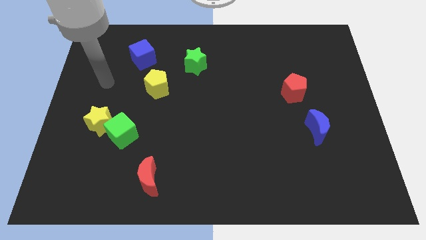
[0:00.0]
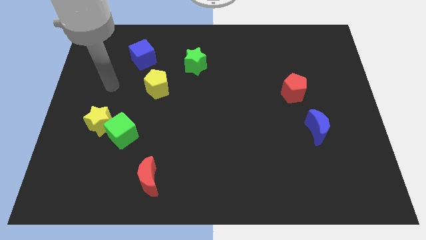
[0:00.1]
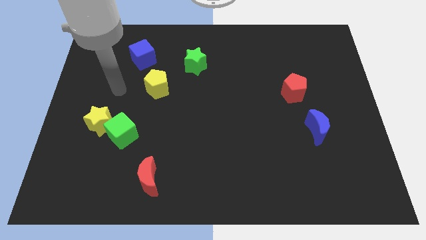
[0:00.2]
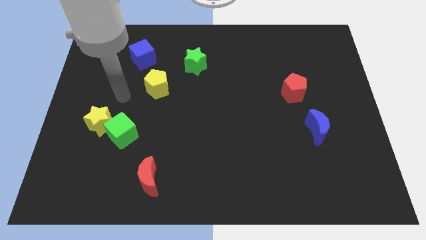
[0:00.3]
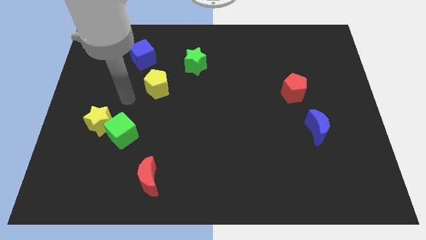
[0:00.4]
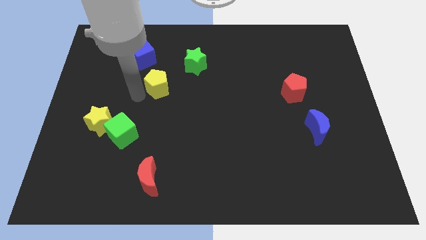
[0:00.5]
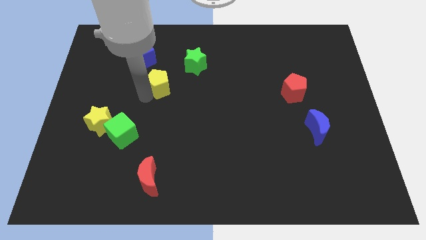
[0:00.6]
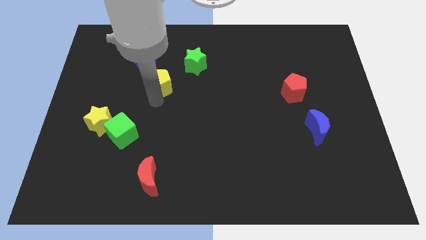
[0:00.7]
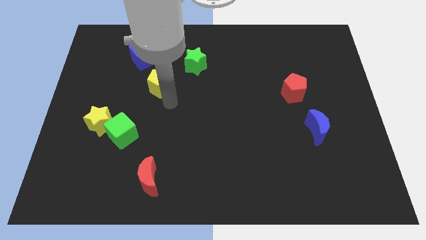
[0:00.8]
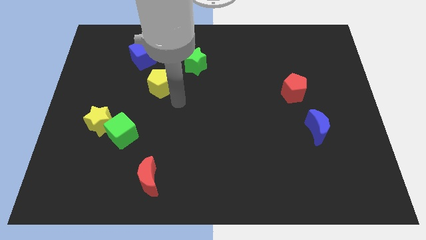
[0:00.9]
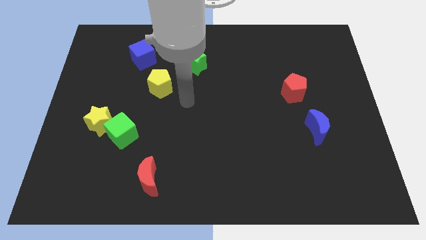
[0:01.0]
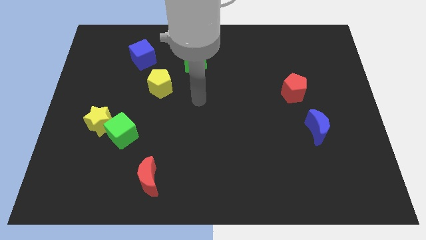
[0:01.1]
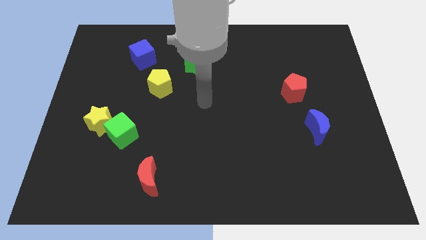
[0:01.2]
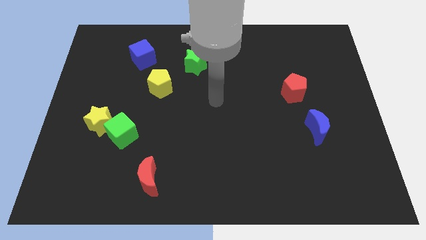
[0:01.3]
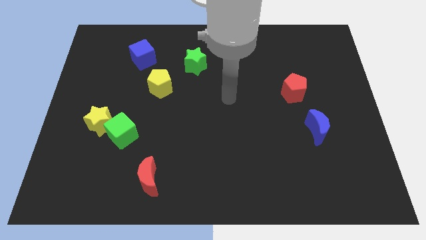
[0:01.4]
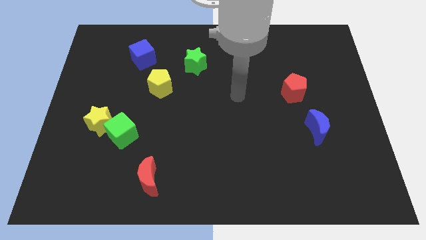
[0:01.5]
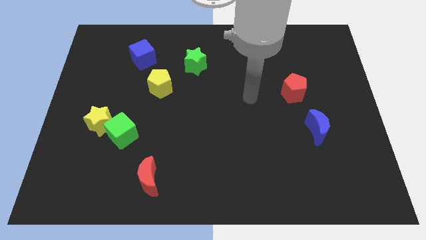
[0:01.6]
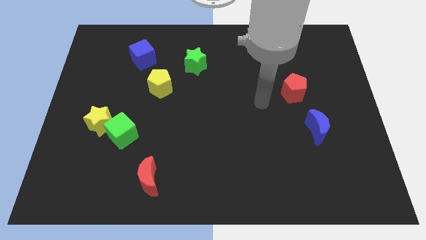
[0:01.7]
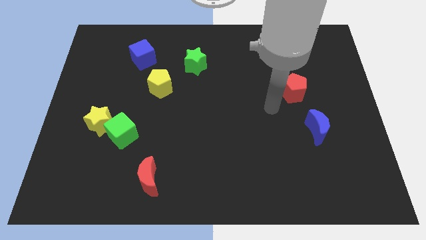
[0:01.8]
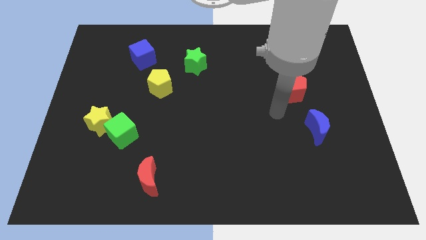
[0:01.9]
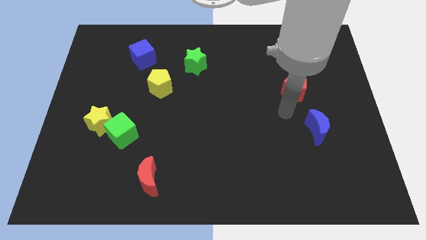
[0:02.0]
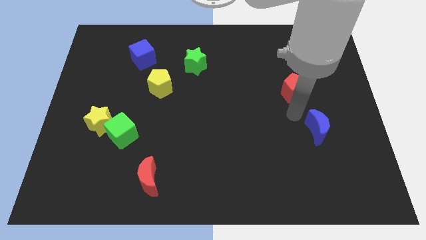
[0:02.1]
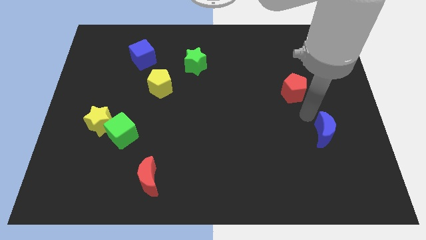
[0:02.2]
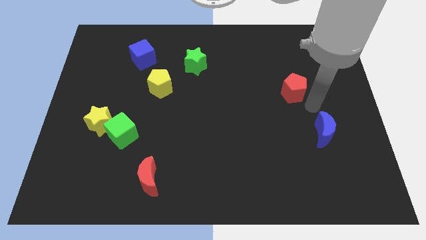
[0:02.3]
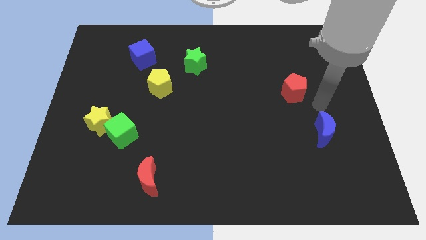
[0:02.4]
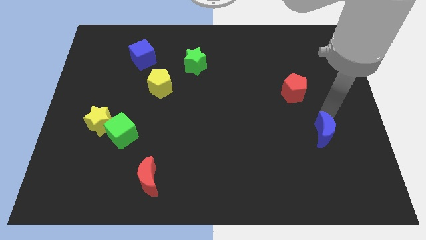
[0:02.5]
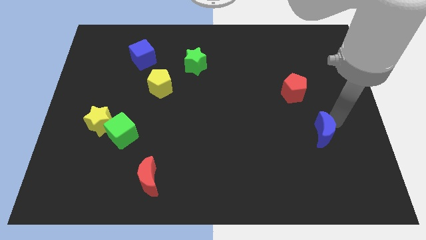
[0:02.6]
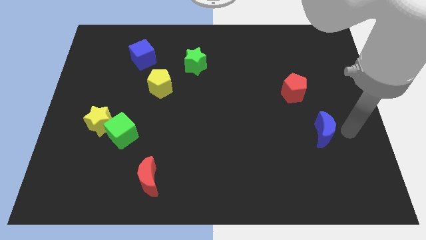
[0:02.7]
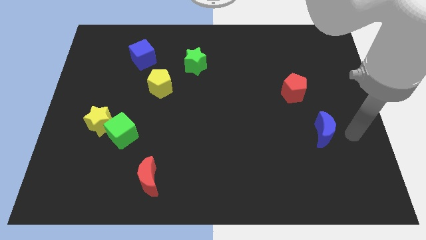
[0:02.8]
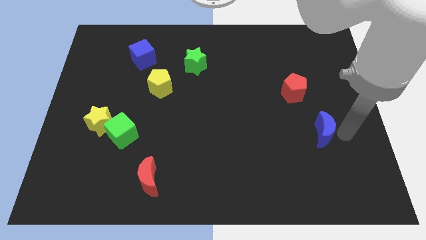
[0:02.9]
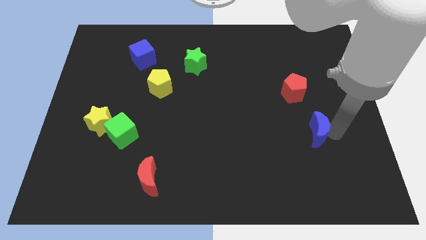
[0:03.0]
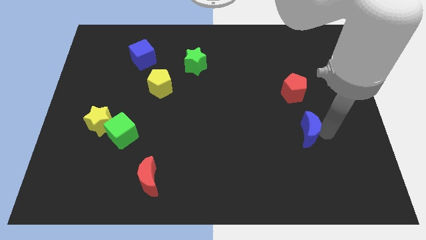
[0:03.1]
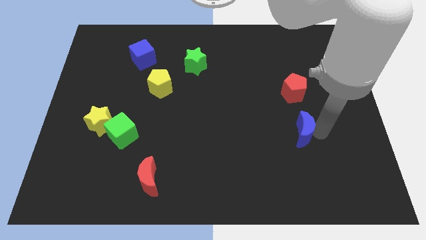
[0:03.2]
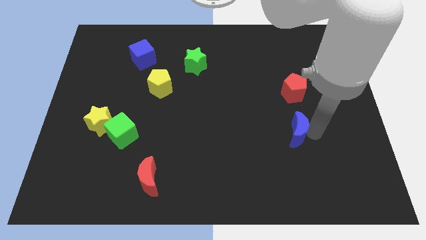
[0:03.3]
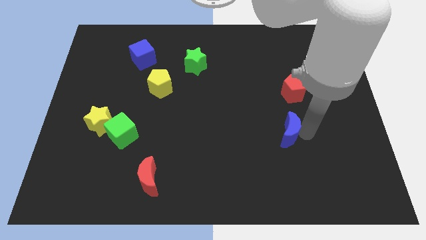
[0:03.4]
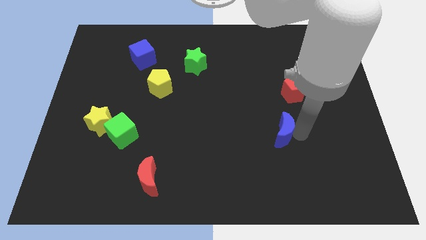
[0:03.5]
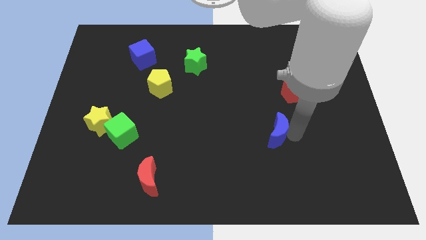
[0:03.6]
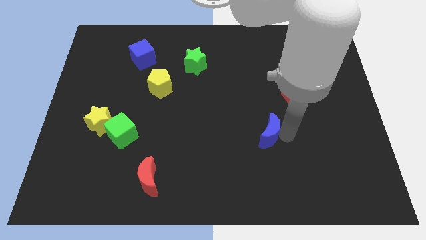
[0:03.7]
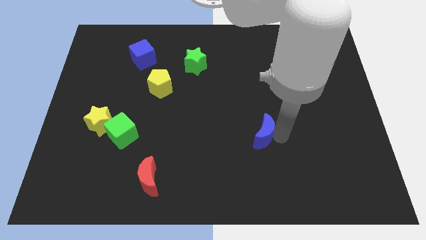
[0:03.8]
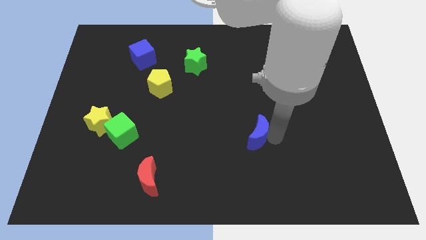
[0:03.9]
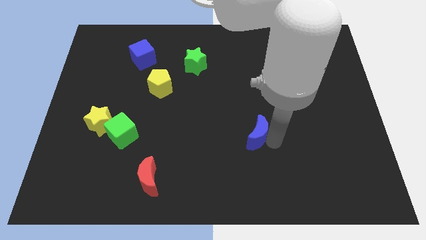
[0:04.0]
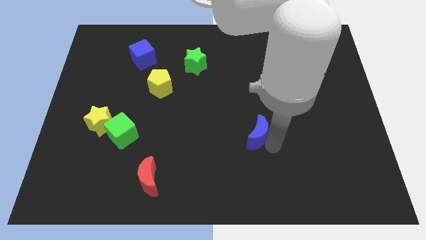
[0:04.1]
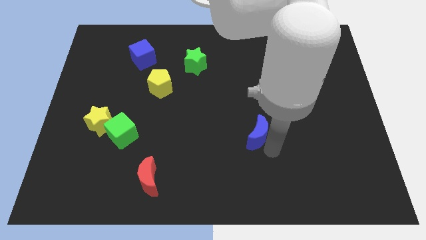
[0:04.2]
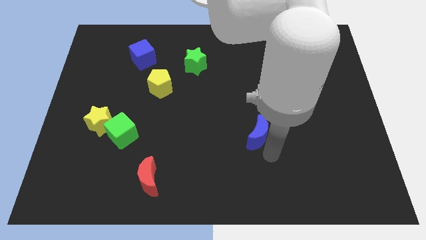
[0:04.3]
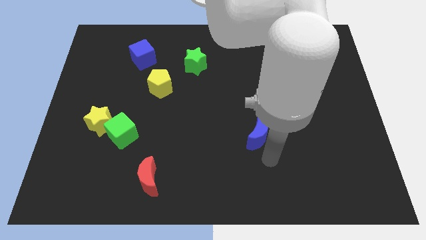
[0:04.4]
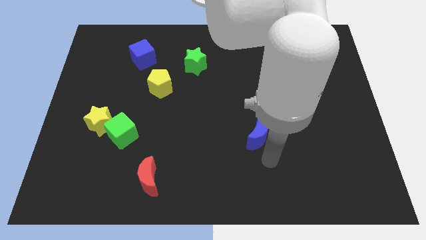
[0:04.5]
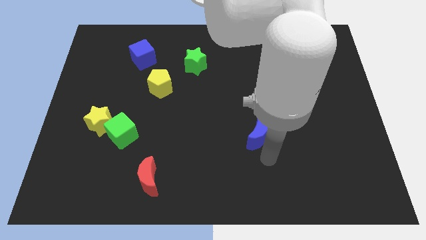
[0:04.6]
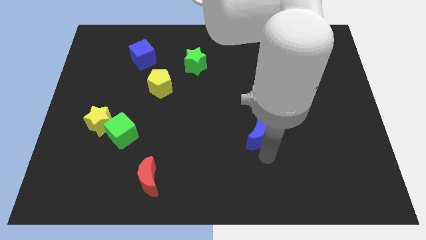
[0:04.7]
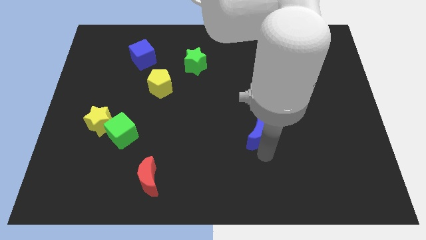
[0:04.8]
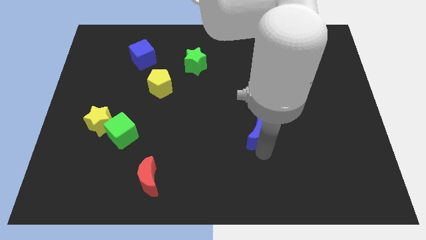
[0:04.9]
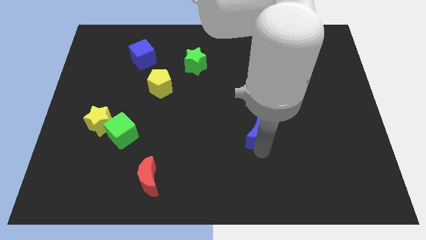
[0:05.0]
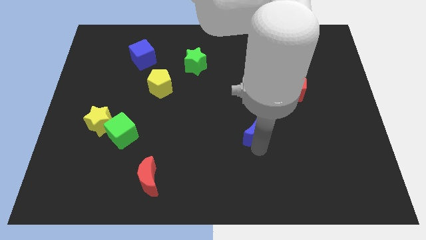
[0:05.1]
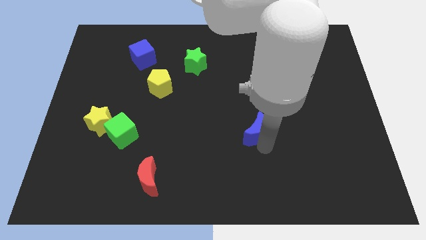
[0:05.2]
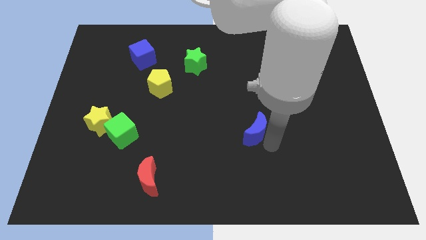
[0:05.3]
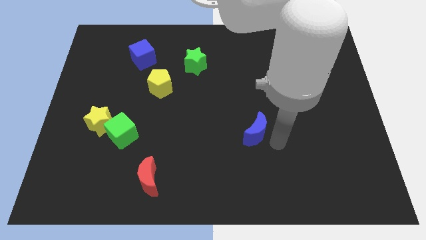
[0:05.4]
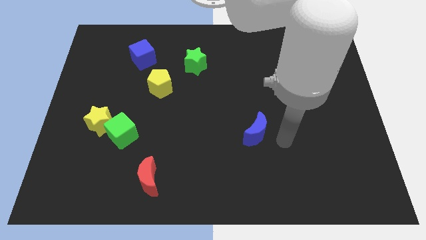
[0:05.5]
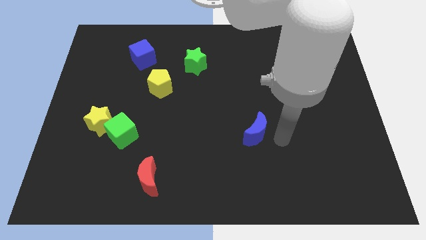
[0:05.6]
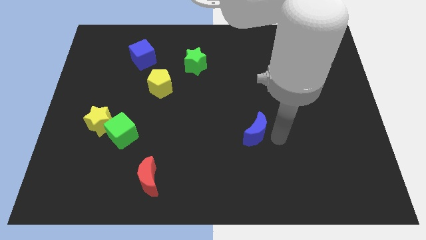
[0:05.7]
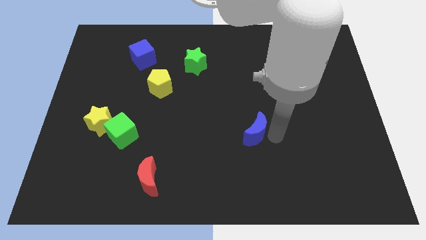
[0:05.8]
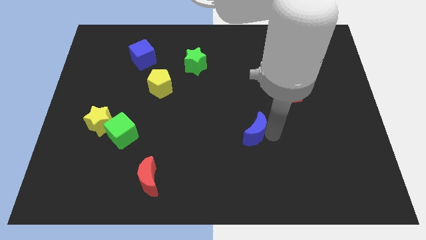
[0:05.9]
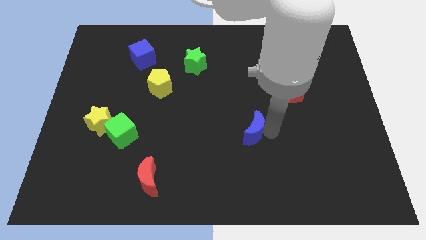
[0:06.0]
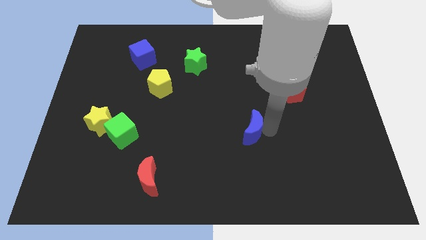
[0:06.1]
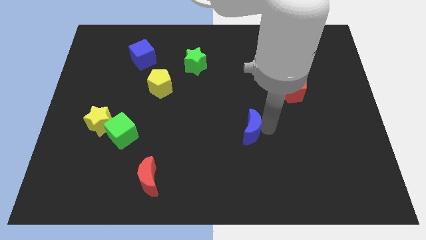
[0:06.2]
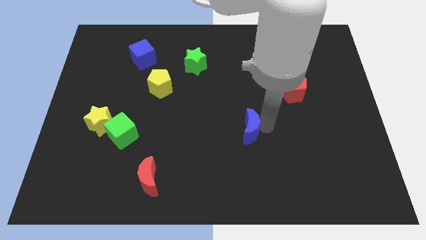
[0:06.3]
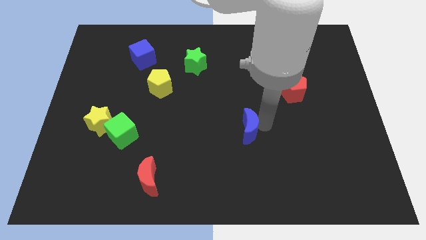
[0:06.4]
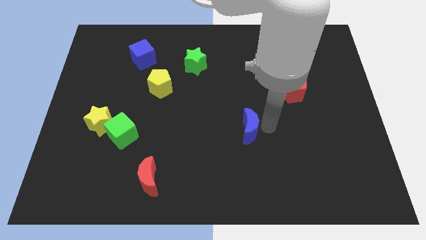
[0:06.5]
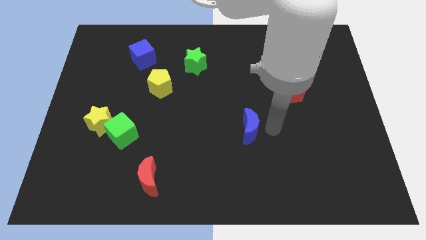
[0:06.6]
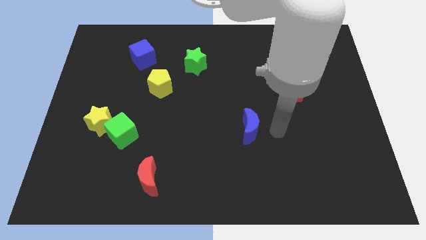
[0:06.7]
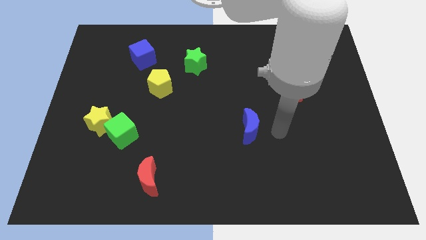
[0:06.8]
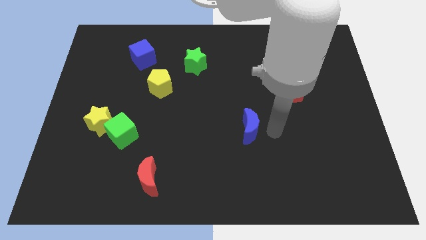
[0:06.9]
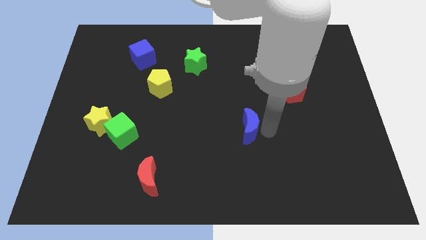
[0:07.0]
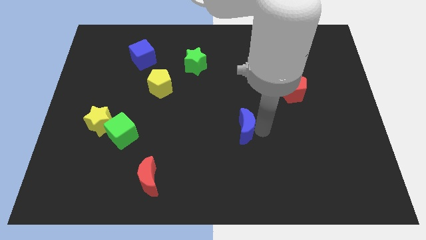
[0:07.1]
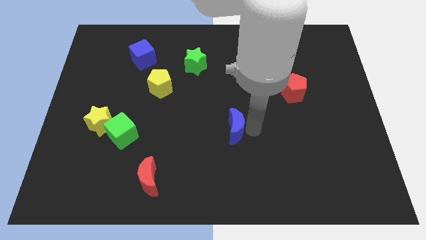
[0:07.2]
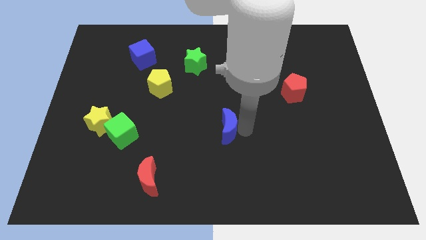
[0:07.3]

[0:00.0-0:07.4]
move the blue moon to the left

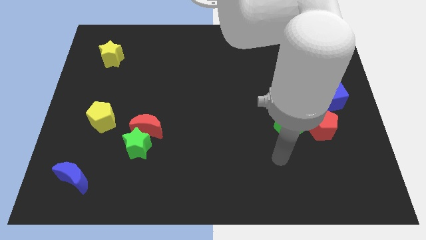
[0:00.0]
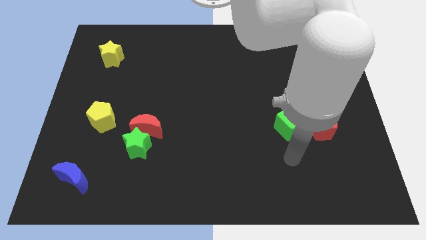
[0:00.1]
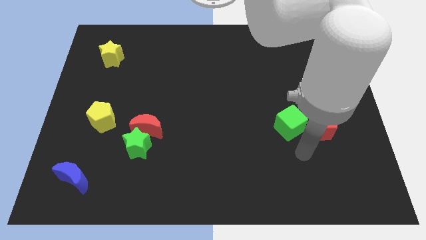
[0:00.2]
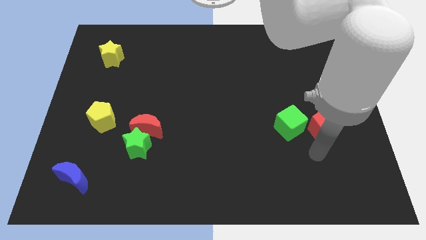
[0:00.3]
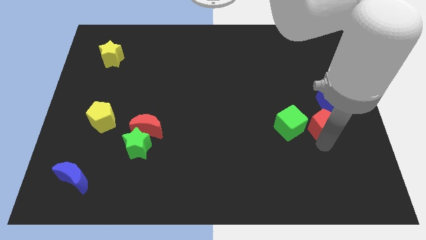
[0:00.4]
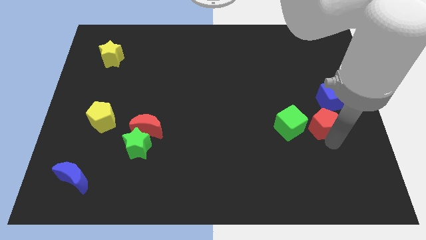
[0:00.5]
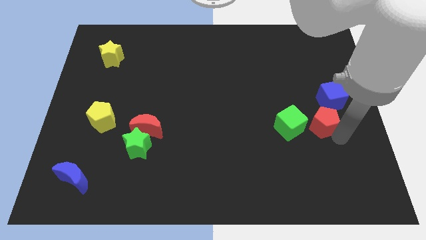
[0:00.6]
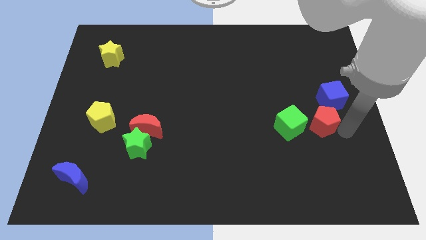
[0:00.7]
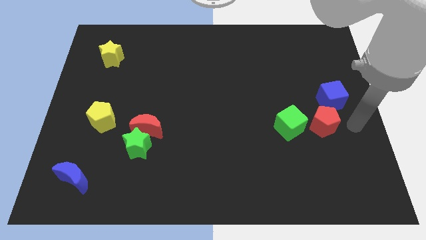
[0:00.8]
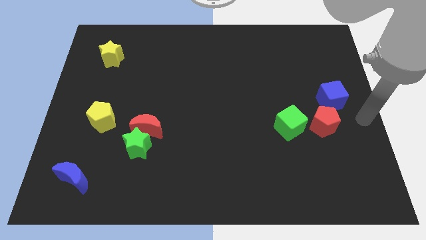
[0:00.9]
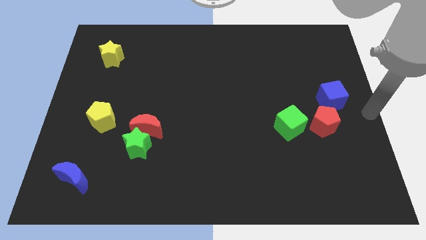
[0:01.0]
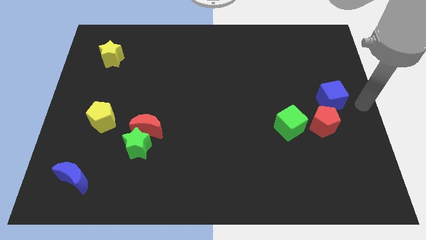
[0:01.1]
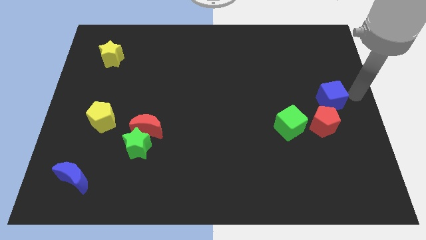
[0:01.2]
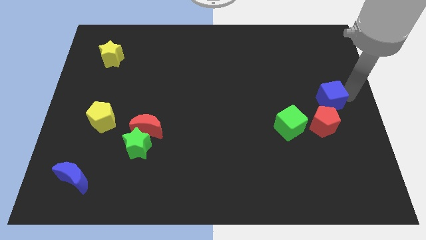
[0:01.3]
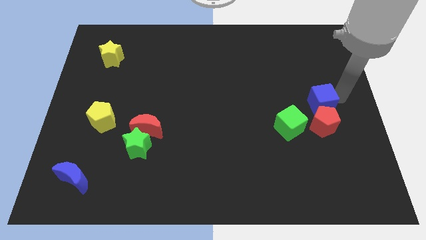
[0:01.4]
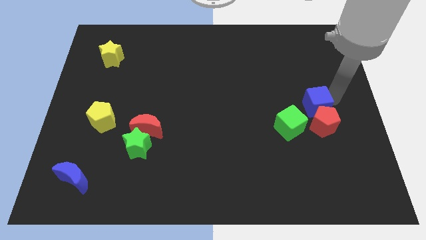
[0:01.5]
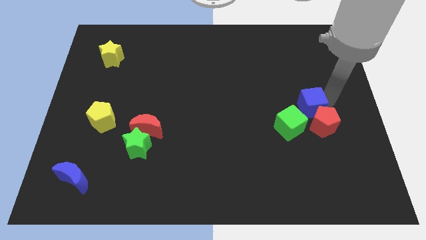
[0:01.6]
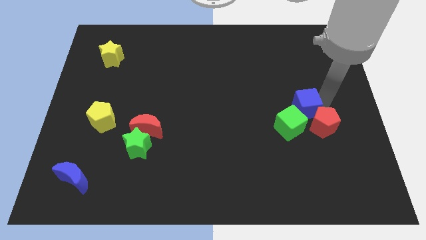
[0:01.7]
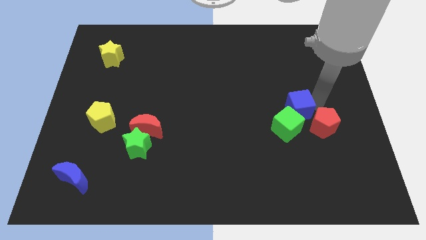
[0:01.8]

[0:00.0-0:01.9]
push the blue cube downwards and left diagonally a little bit
